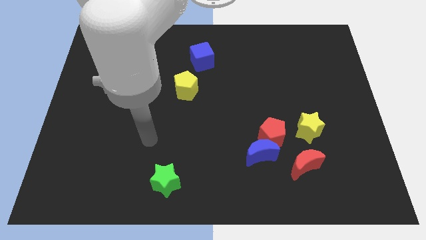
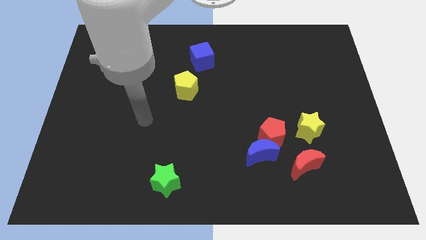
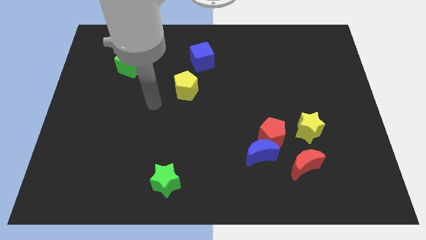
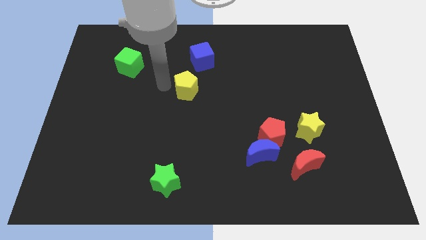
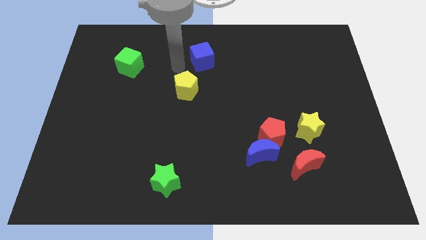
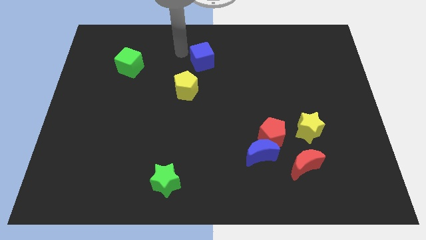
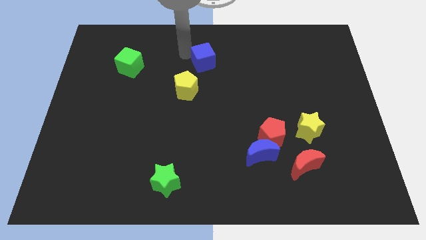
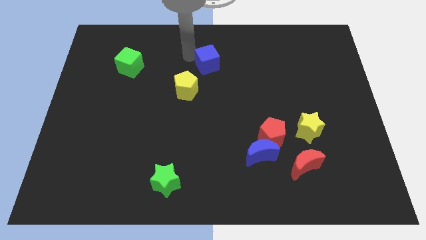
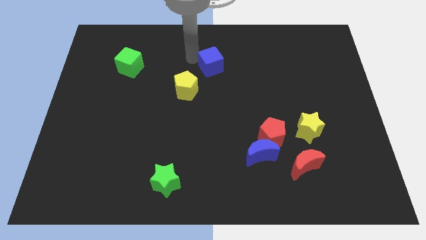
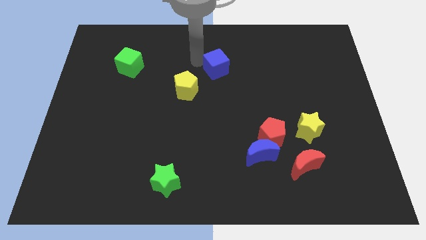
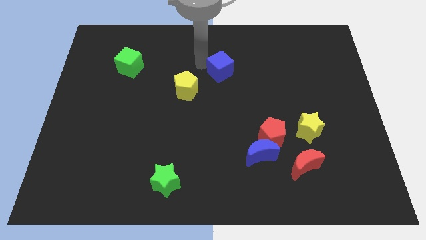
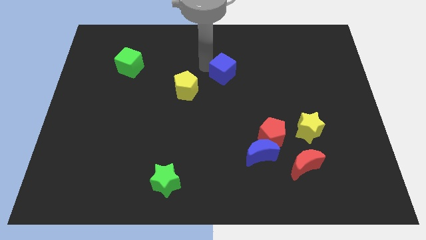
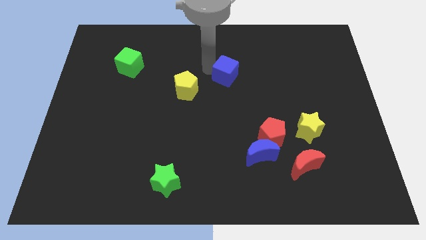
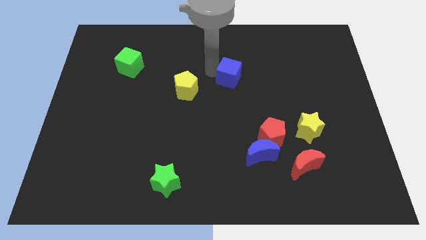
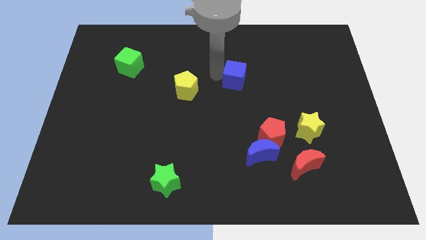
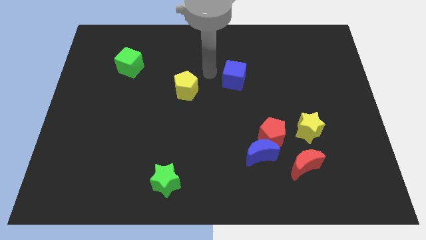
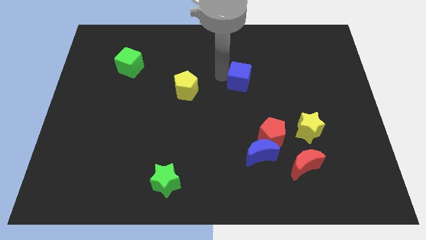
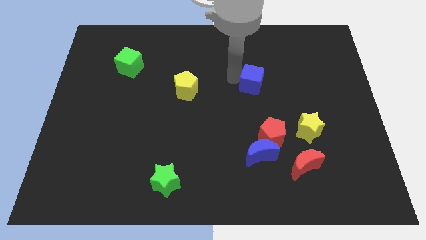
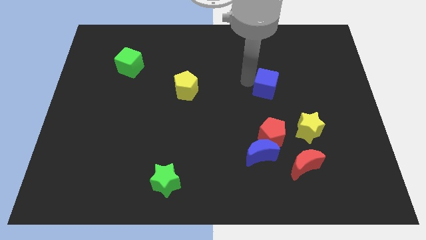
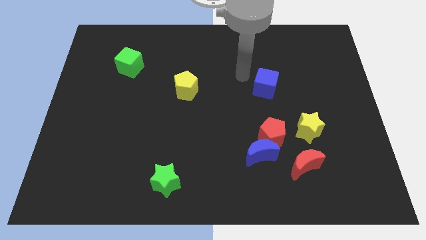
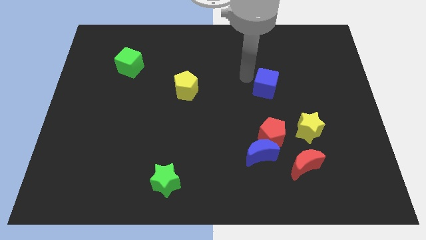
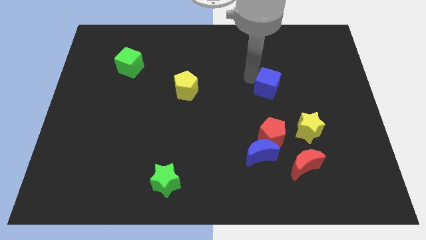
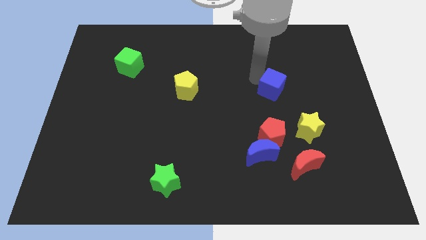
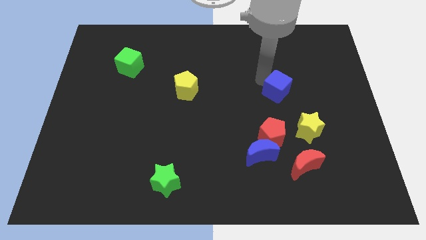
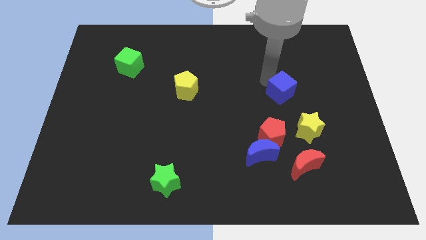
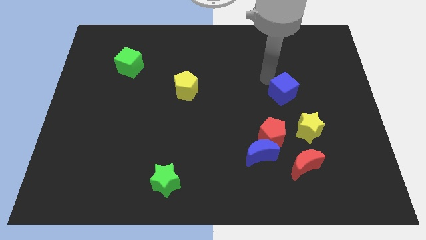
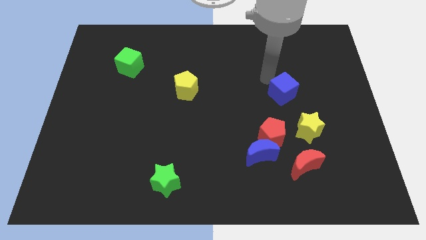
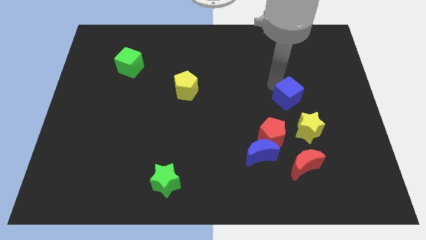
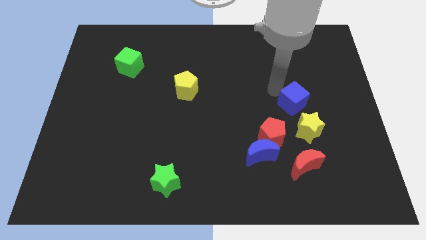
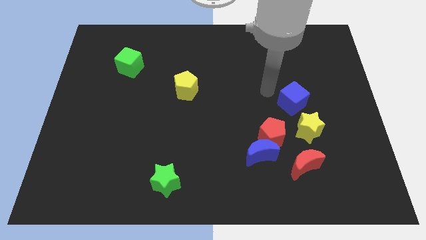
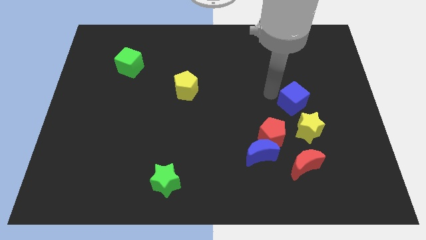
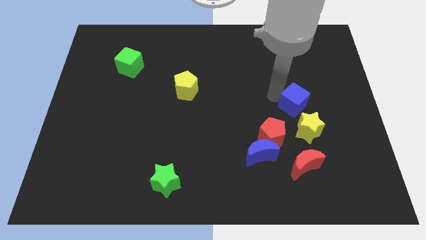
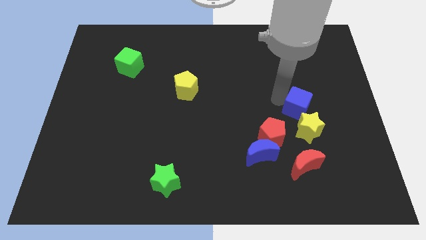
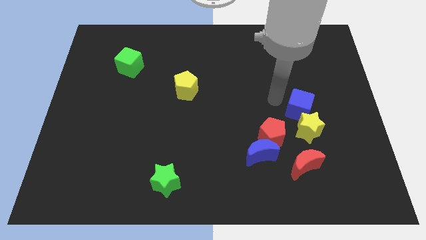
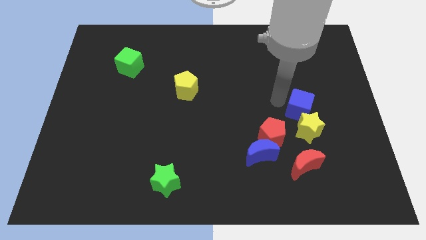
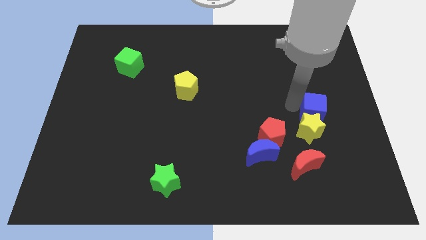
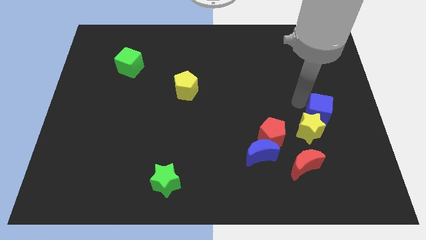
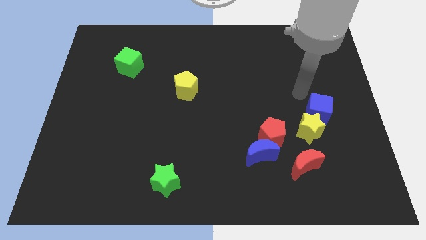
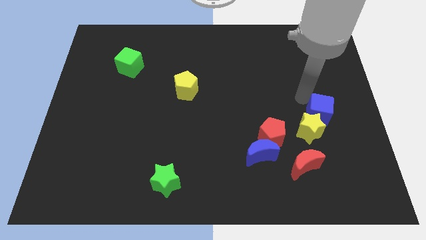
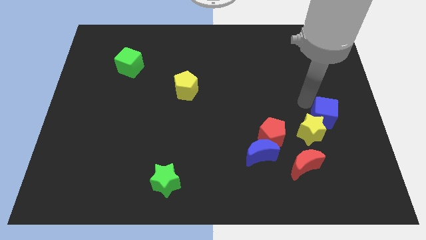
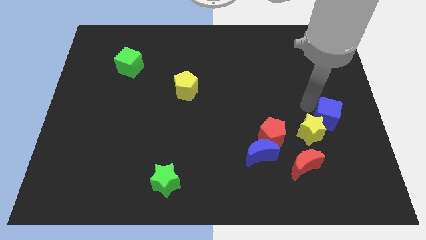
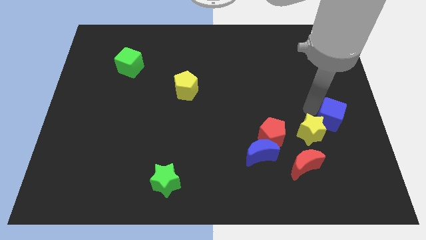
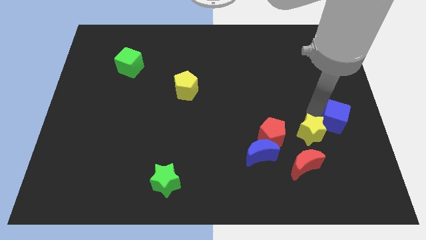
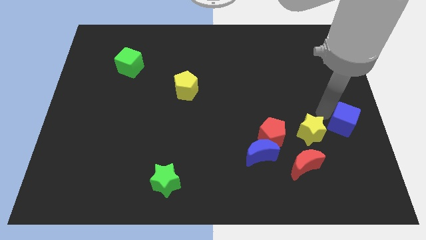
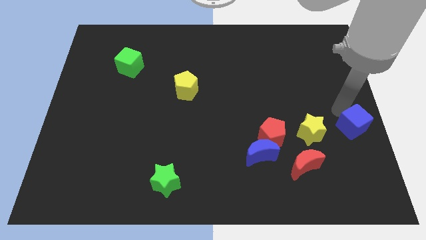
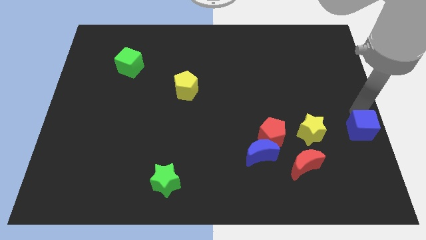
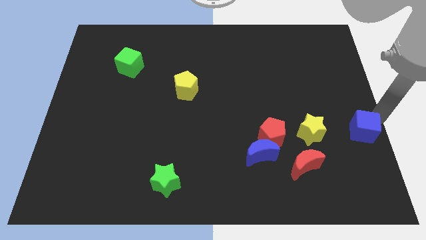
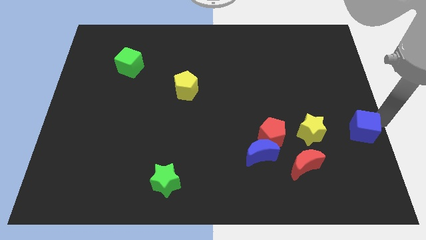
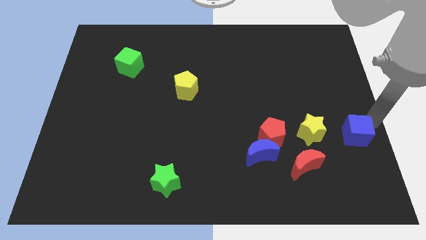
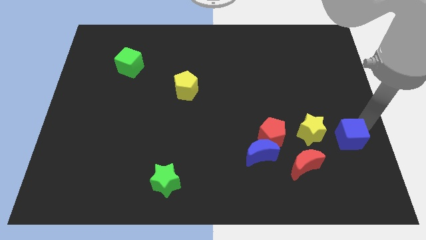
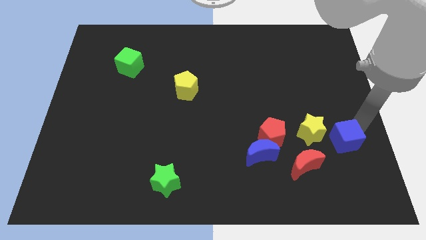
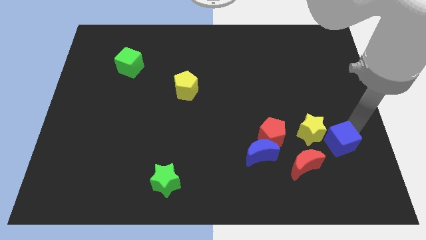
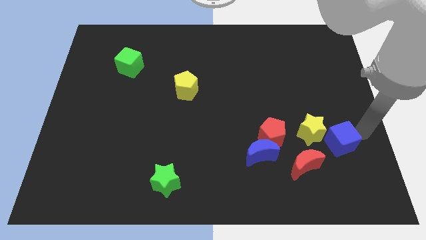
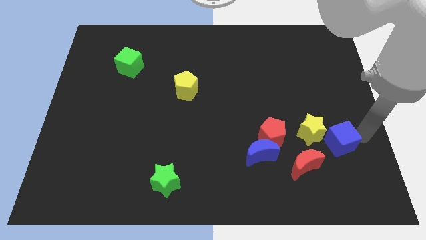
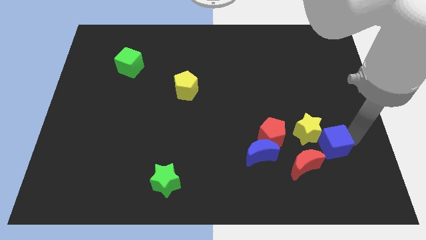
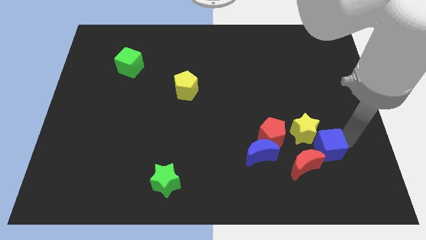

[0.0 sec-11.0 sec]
push the blue cube right of the blue moon

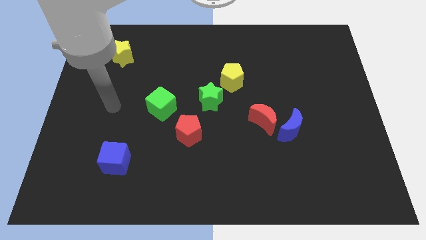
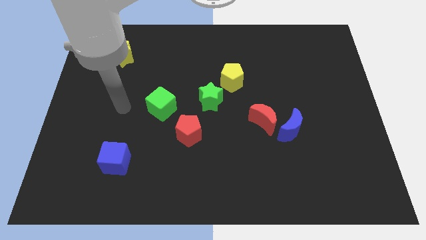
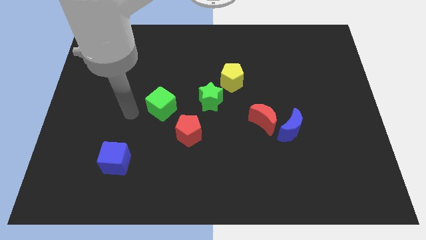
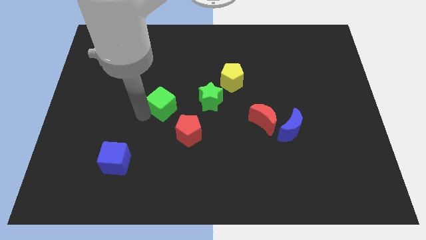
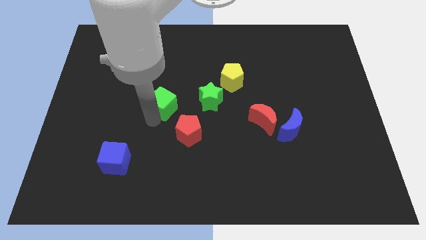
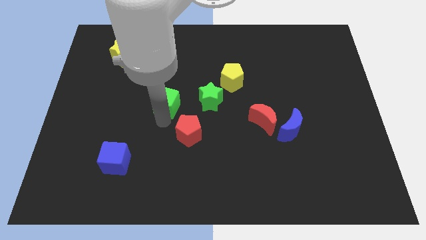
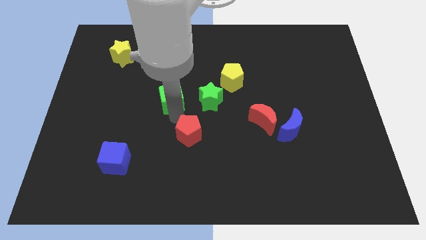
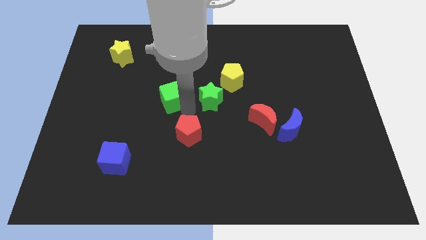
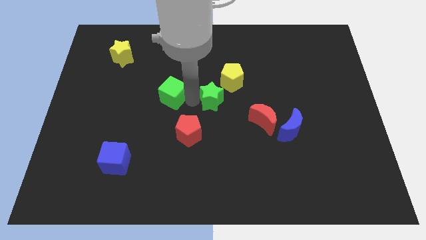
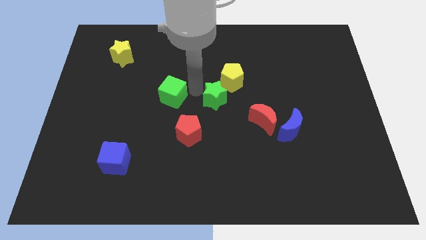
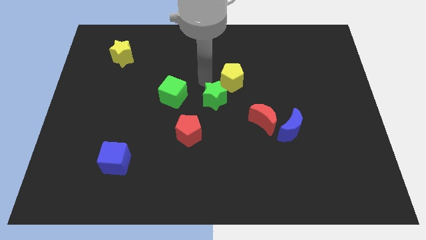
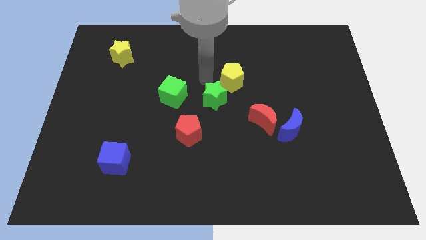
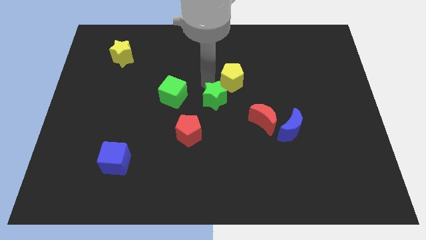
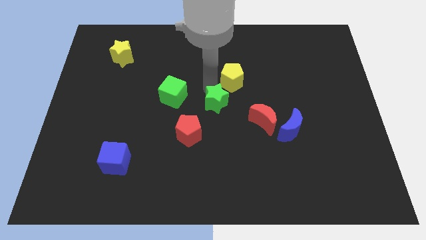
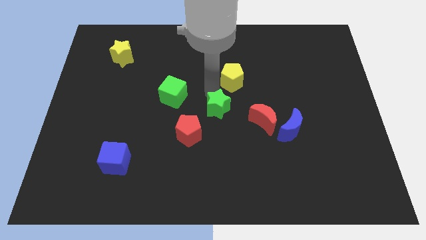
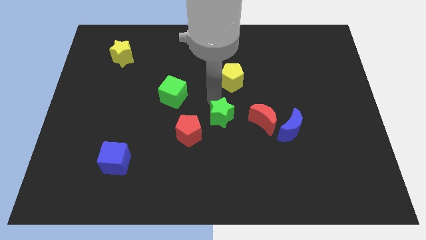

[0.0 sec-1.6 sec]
push the green star to the right of the red pentagon

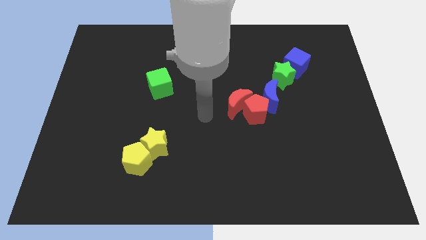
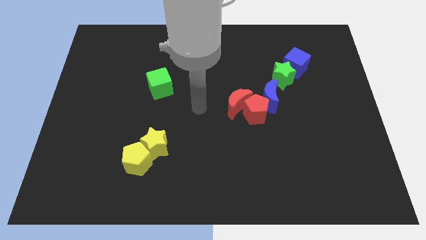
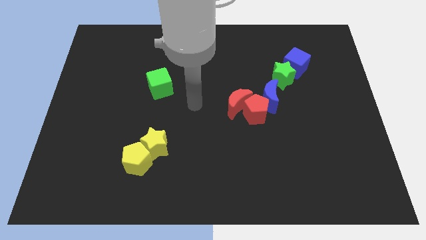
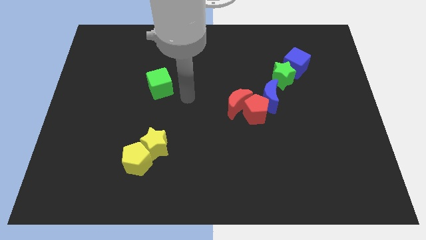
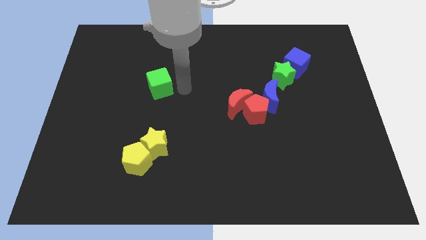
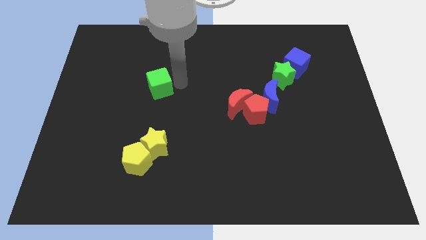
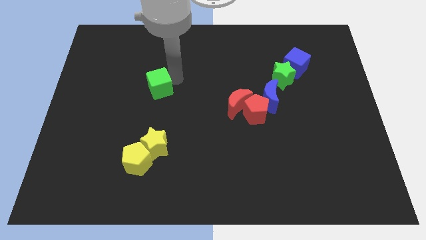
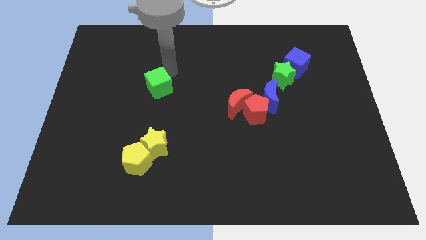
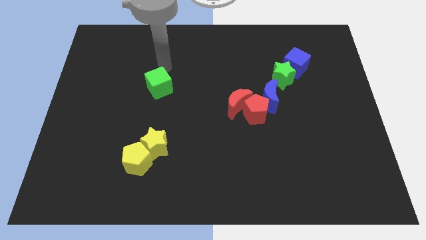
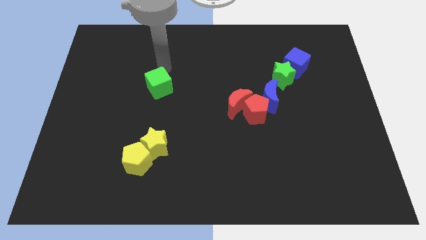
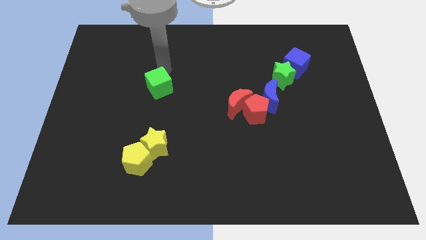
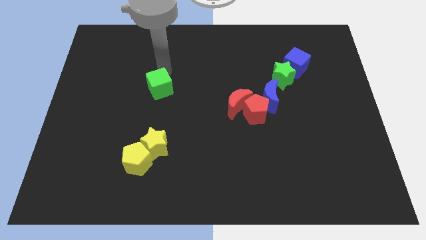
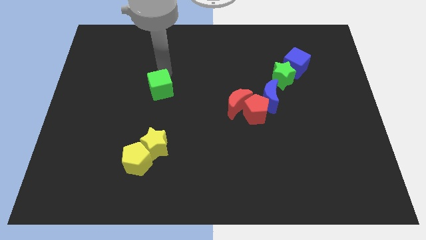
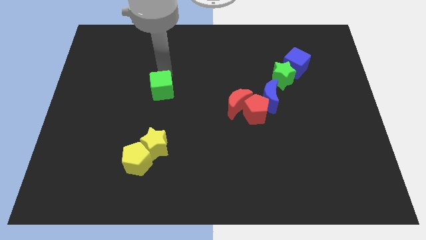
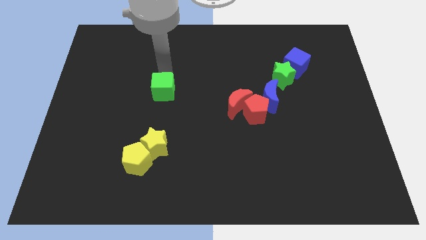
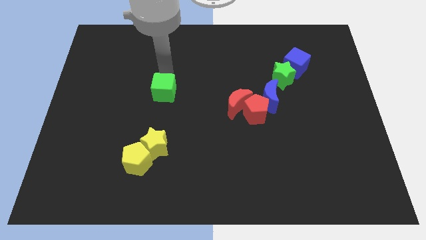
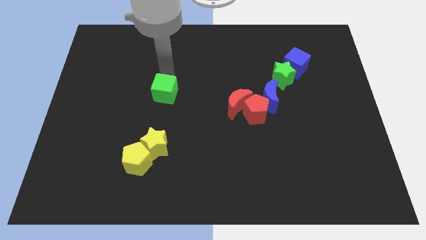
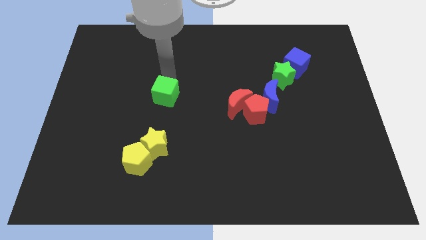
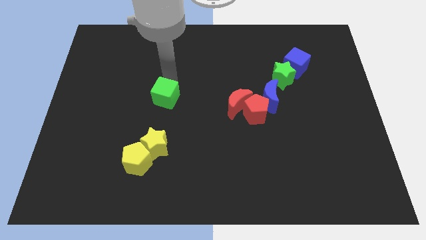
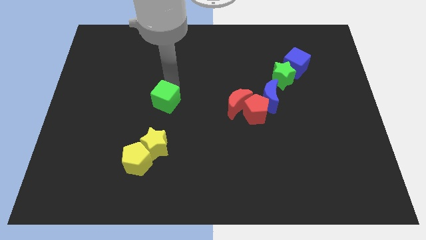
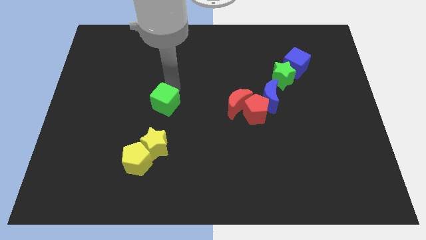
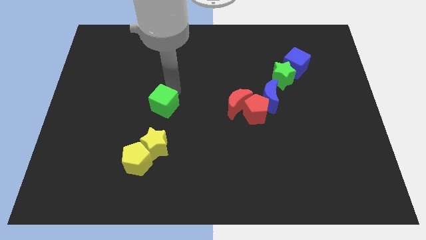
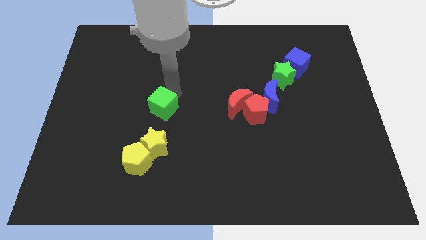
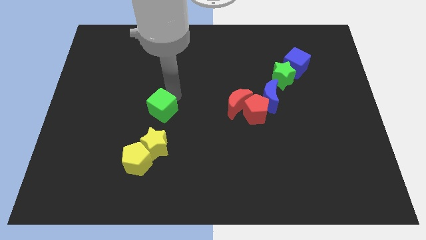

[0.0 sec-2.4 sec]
slide the green cube to the top side of the yellow pentagon
